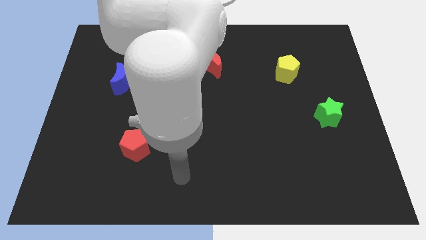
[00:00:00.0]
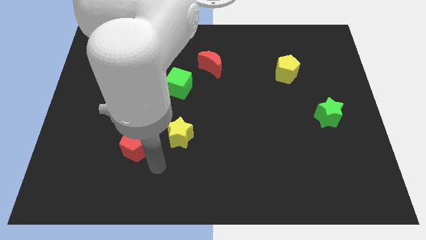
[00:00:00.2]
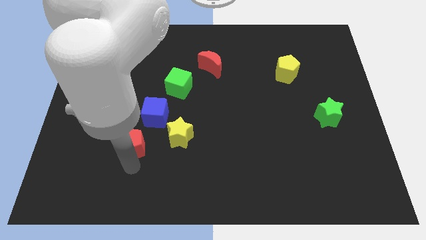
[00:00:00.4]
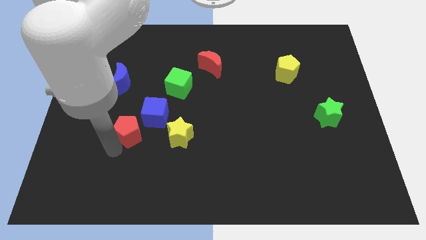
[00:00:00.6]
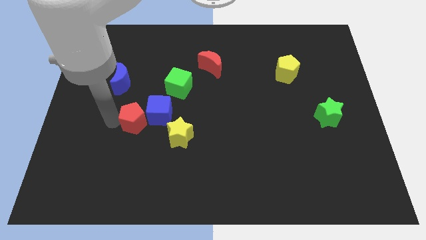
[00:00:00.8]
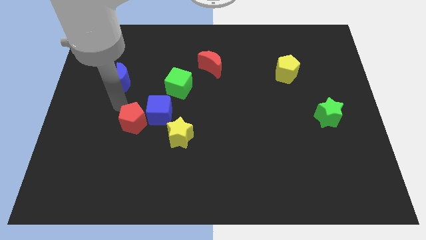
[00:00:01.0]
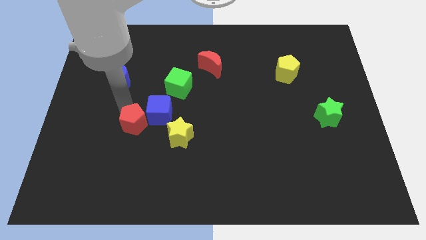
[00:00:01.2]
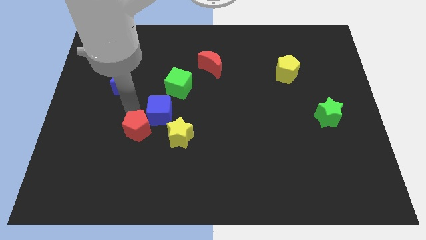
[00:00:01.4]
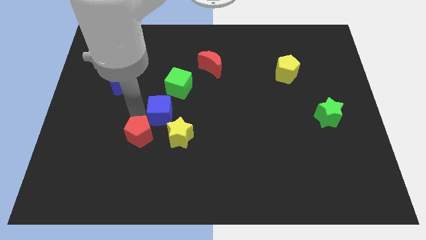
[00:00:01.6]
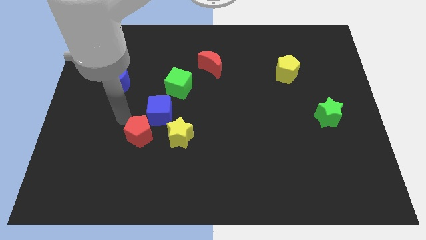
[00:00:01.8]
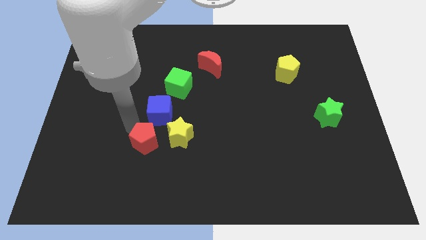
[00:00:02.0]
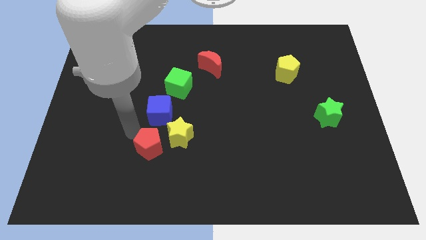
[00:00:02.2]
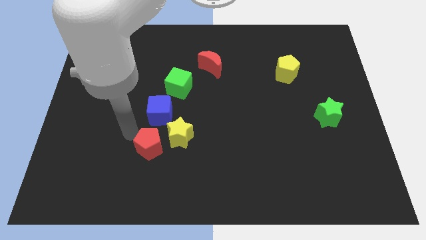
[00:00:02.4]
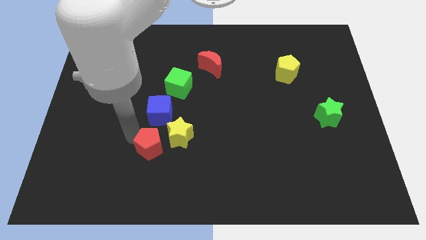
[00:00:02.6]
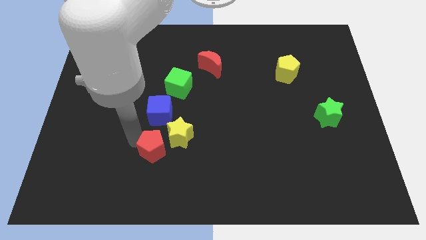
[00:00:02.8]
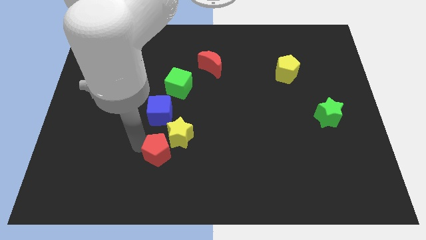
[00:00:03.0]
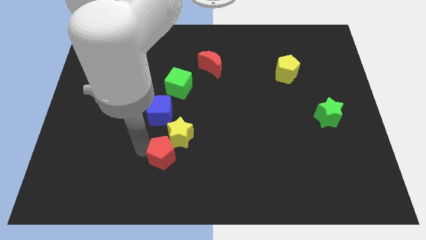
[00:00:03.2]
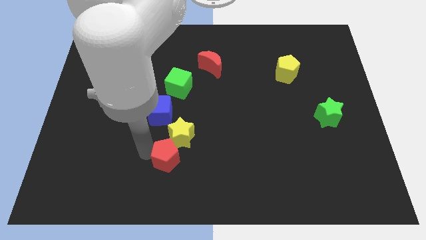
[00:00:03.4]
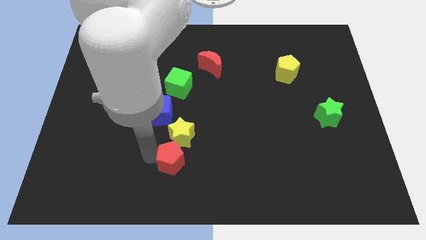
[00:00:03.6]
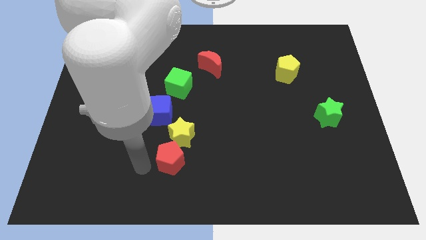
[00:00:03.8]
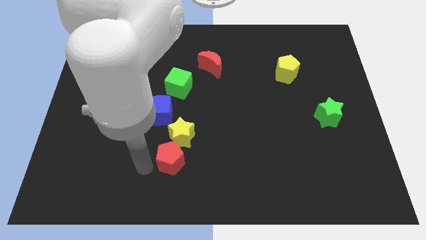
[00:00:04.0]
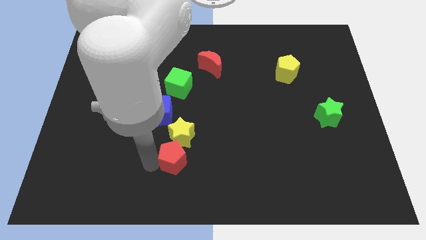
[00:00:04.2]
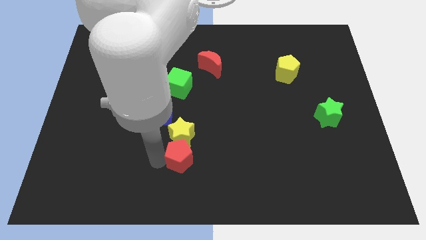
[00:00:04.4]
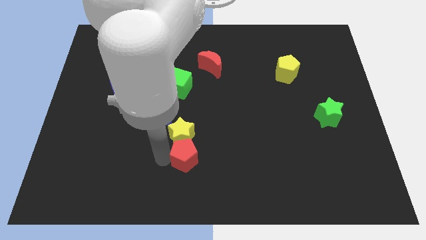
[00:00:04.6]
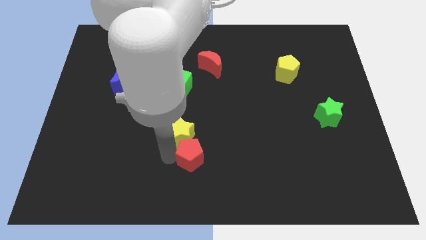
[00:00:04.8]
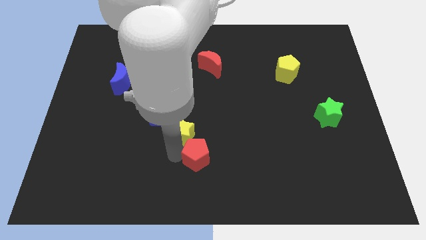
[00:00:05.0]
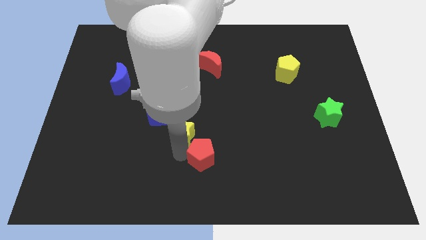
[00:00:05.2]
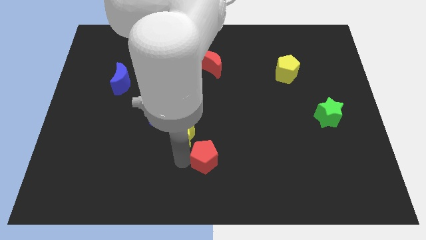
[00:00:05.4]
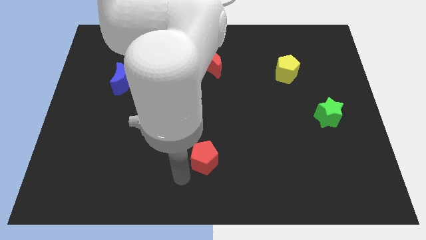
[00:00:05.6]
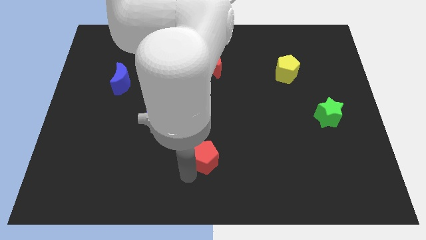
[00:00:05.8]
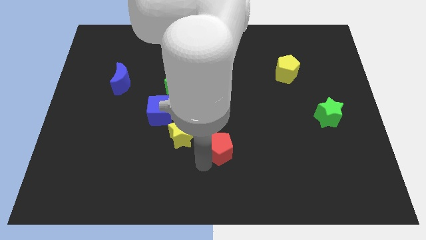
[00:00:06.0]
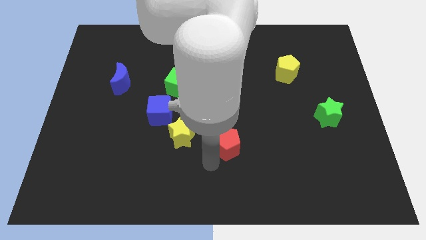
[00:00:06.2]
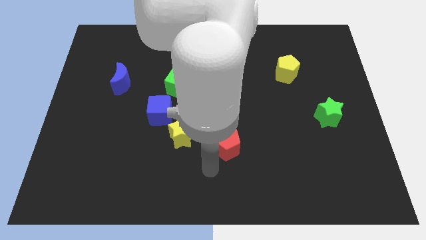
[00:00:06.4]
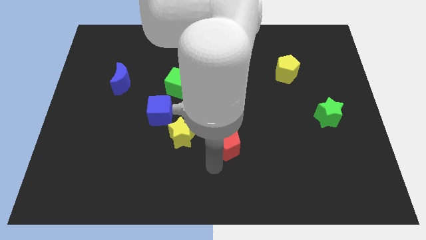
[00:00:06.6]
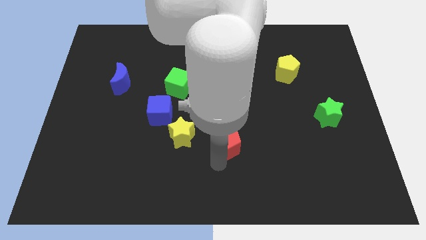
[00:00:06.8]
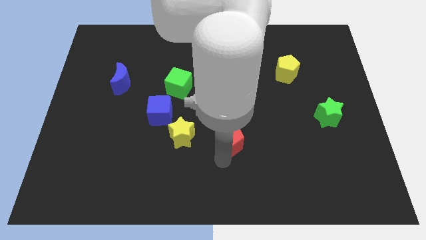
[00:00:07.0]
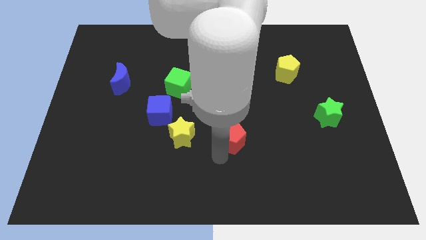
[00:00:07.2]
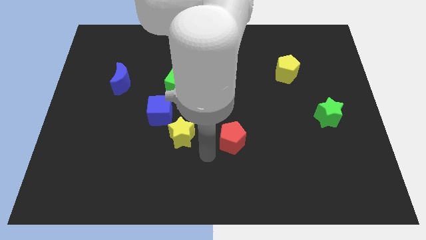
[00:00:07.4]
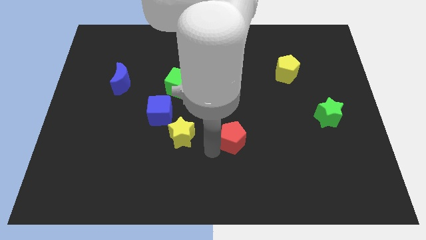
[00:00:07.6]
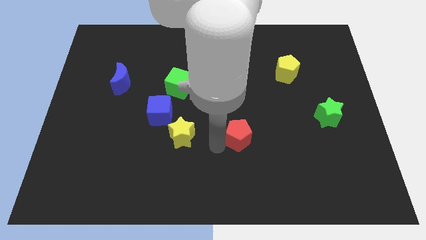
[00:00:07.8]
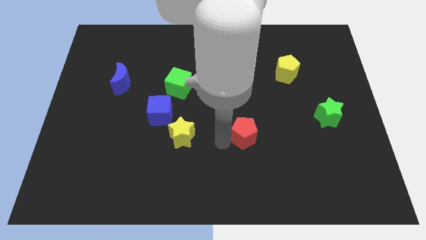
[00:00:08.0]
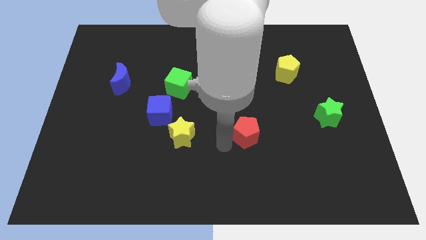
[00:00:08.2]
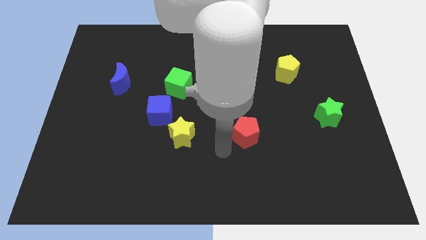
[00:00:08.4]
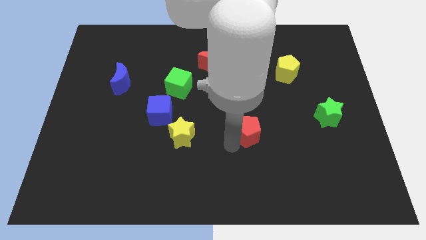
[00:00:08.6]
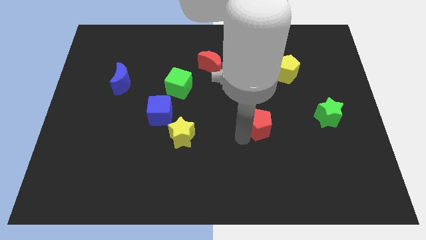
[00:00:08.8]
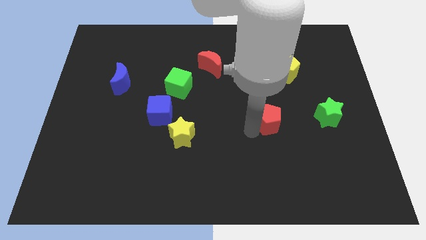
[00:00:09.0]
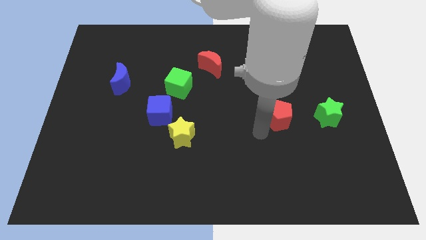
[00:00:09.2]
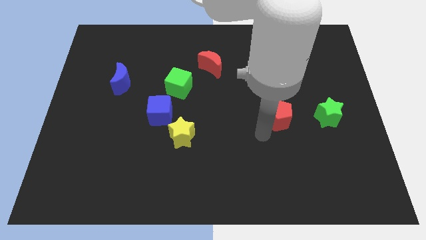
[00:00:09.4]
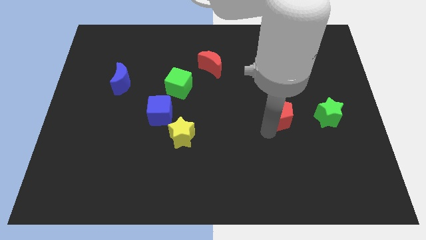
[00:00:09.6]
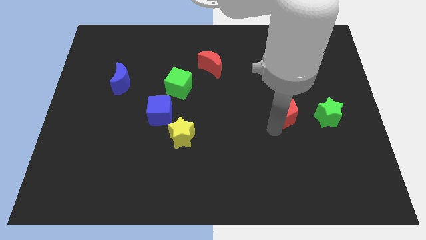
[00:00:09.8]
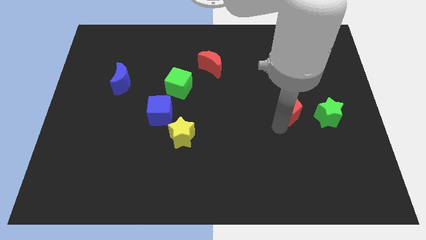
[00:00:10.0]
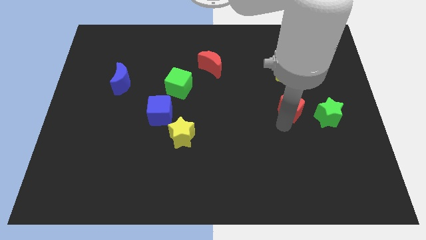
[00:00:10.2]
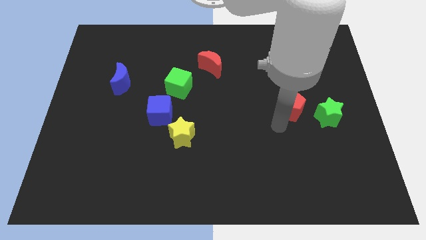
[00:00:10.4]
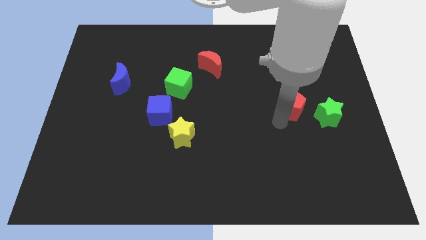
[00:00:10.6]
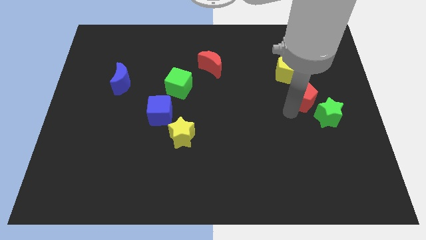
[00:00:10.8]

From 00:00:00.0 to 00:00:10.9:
put the red pentagon diagonally down and to the right of the yellow pentagon

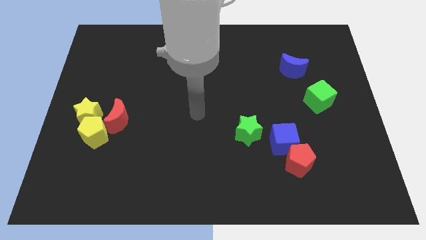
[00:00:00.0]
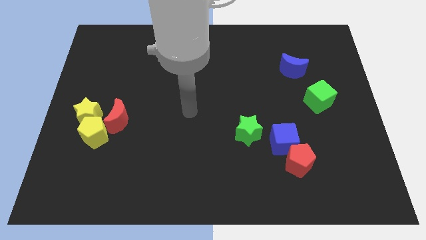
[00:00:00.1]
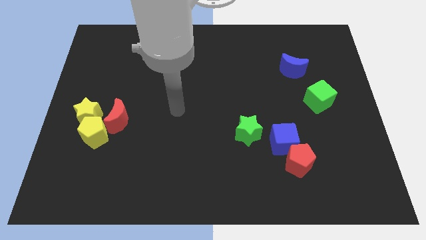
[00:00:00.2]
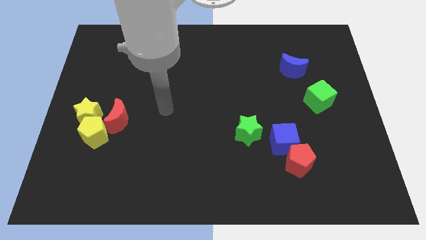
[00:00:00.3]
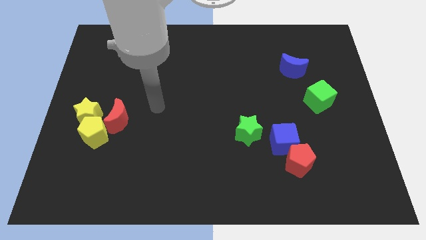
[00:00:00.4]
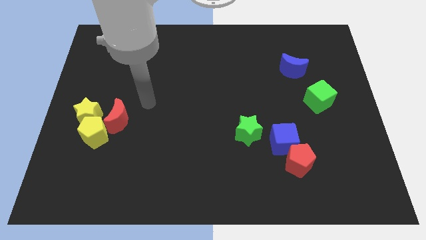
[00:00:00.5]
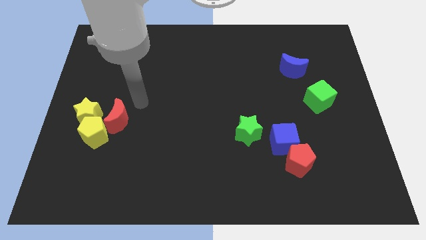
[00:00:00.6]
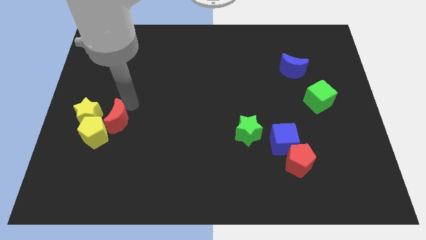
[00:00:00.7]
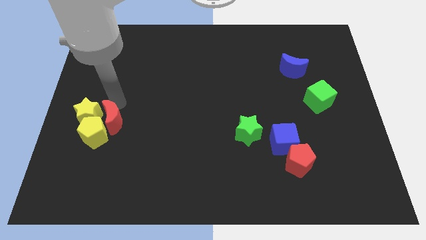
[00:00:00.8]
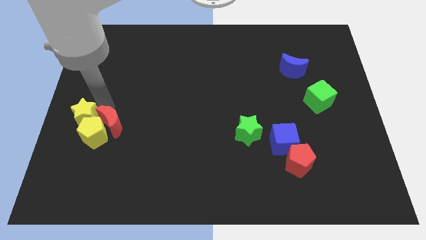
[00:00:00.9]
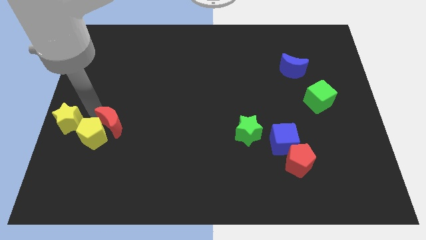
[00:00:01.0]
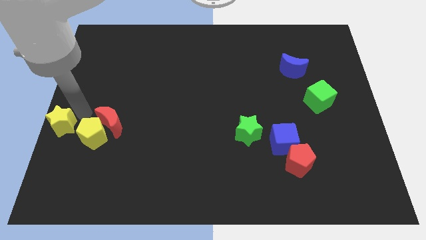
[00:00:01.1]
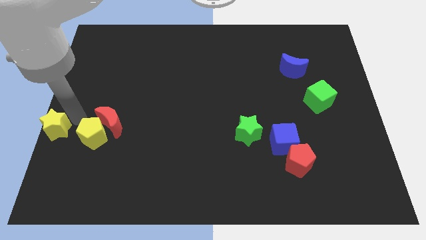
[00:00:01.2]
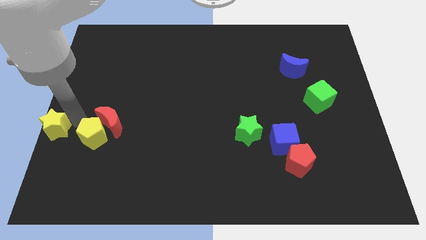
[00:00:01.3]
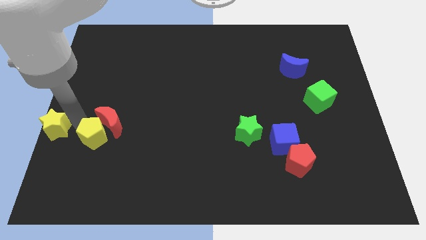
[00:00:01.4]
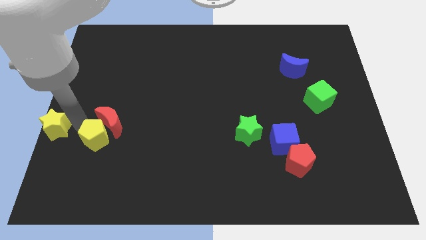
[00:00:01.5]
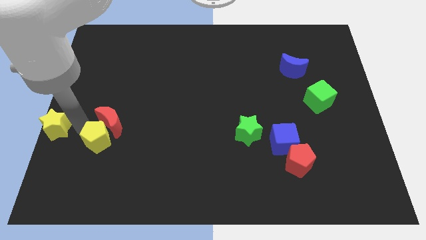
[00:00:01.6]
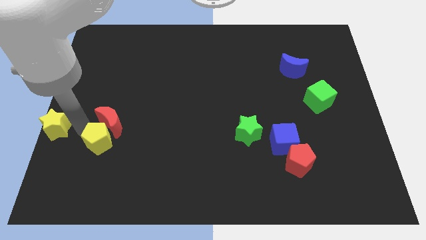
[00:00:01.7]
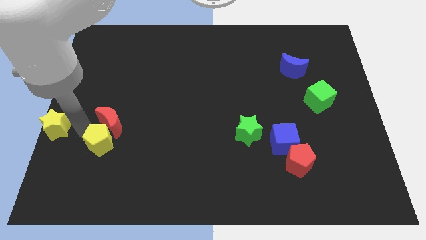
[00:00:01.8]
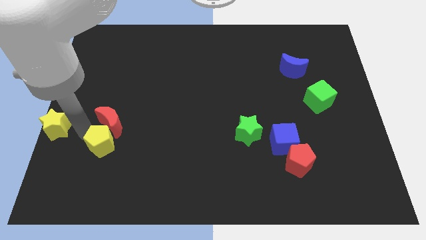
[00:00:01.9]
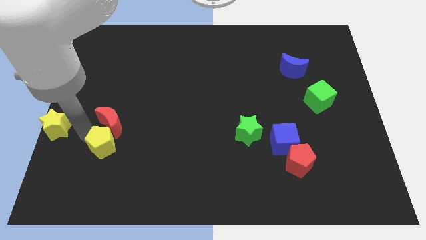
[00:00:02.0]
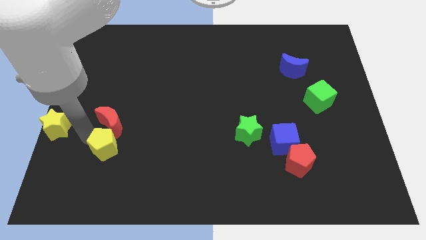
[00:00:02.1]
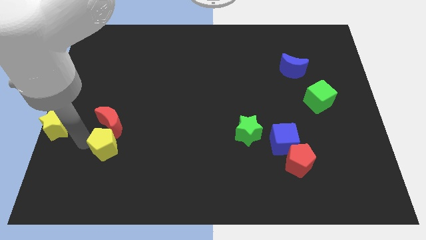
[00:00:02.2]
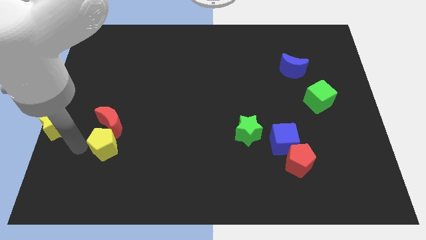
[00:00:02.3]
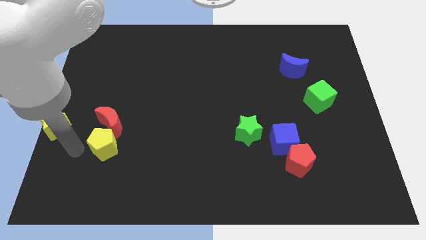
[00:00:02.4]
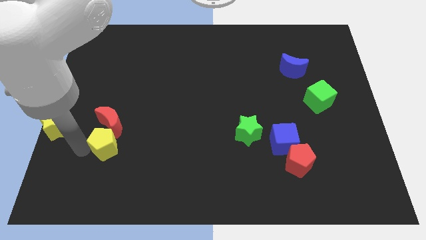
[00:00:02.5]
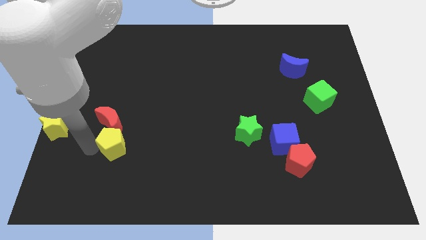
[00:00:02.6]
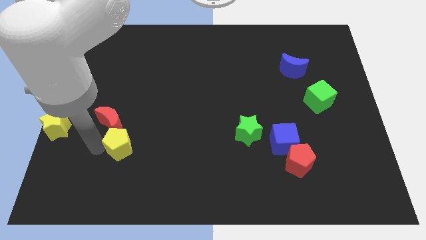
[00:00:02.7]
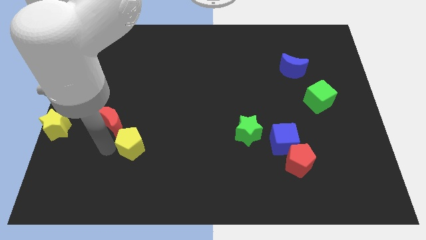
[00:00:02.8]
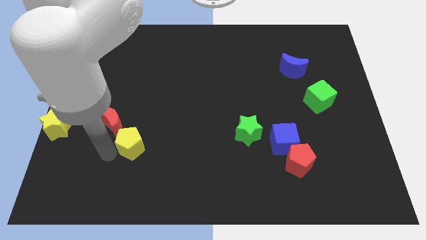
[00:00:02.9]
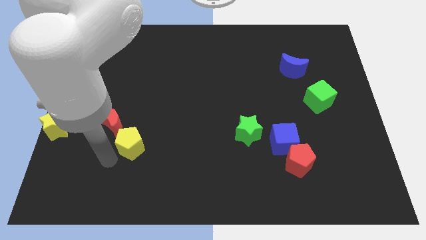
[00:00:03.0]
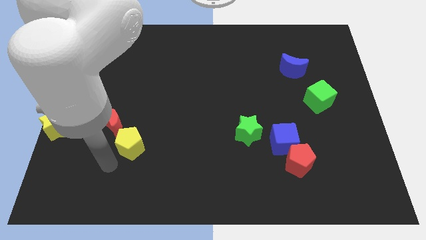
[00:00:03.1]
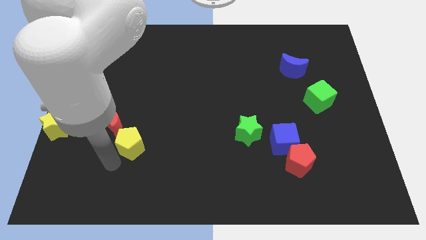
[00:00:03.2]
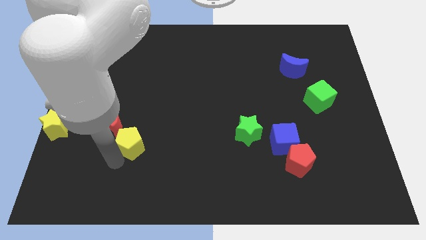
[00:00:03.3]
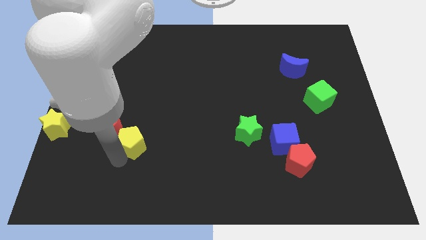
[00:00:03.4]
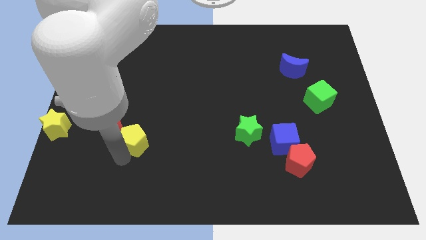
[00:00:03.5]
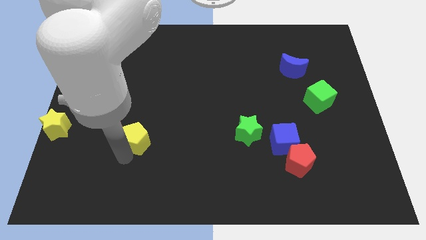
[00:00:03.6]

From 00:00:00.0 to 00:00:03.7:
move the yellow pentagon to the right of the red moon
